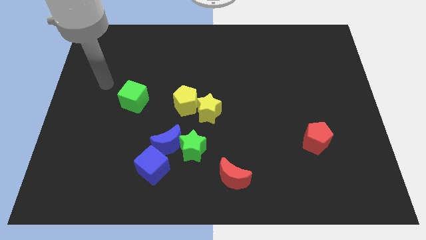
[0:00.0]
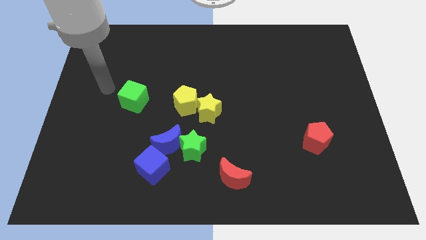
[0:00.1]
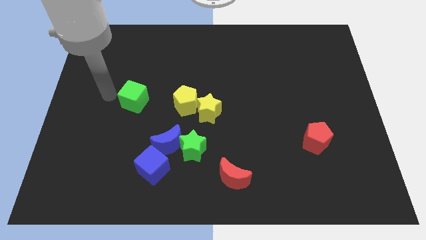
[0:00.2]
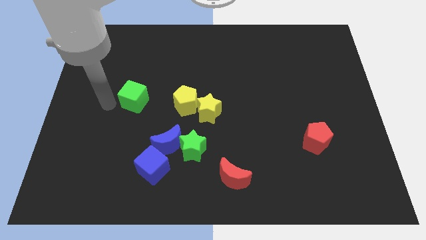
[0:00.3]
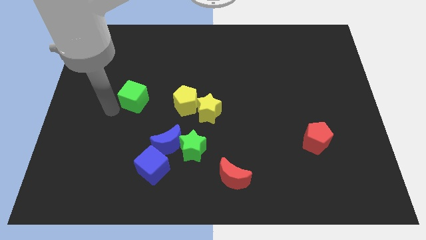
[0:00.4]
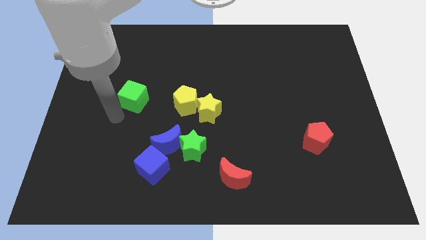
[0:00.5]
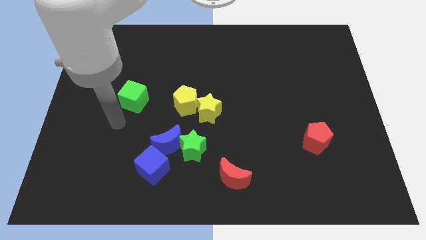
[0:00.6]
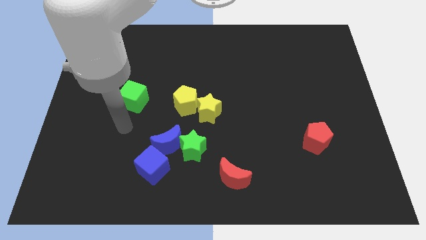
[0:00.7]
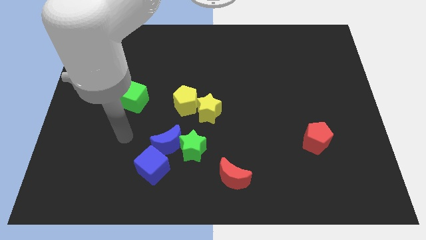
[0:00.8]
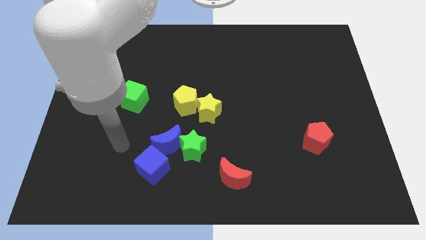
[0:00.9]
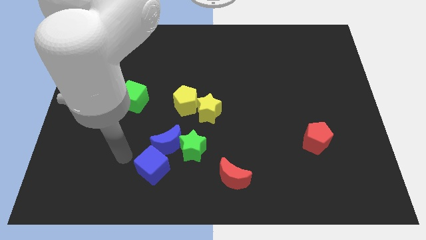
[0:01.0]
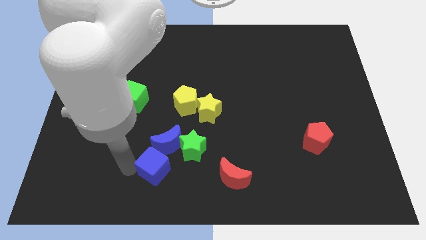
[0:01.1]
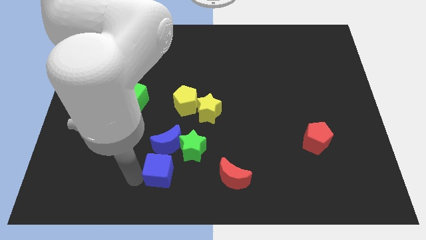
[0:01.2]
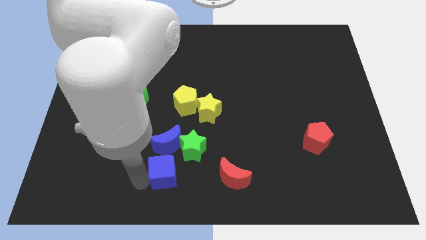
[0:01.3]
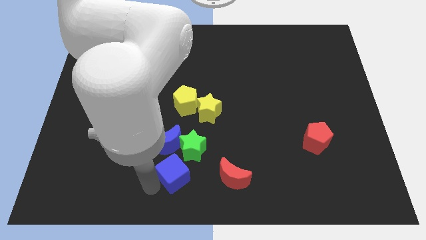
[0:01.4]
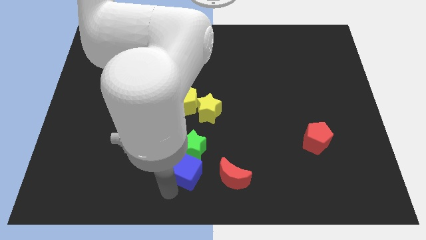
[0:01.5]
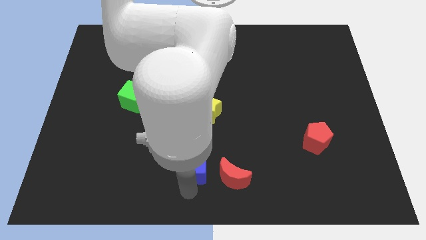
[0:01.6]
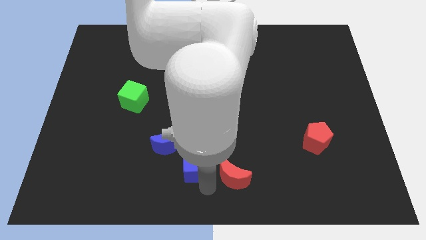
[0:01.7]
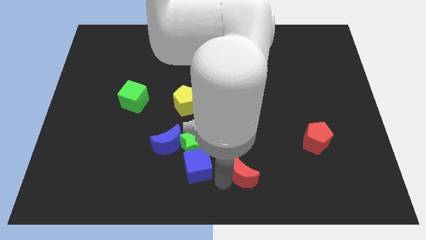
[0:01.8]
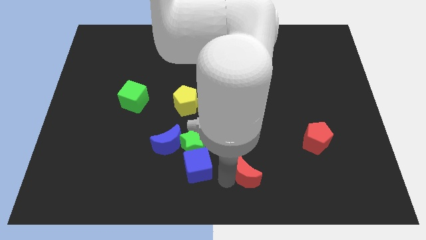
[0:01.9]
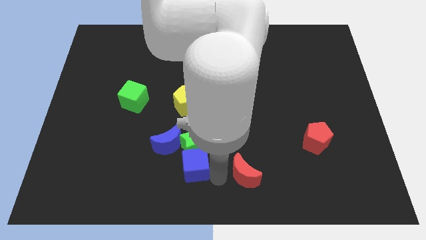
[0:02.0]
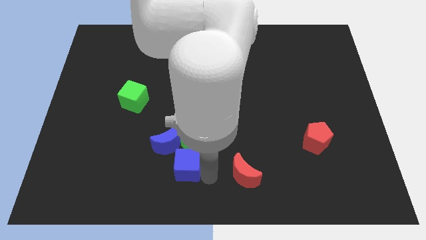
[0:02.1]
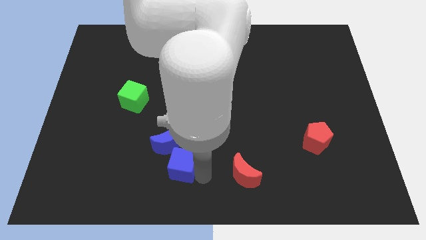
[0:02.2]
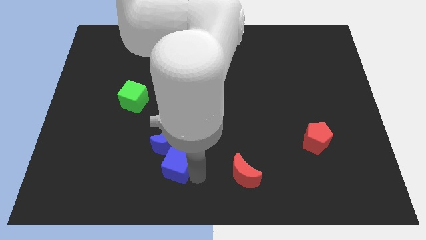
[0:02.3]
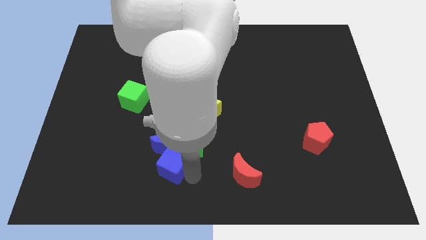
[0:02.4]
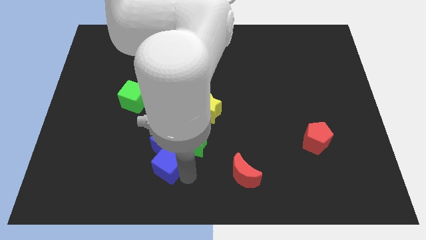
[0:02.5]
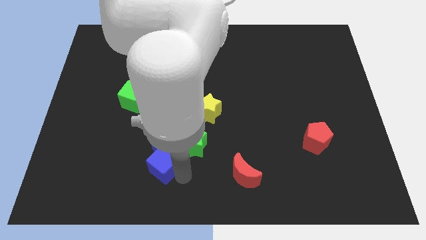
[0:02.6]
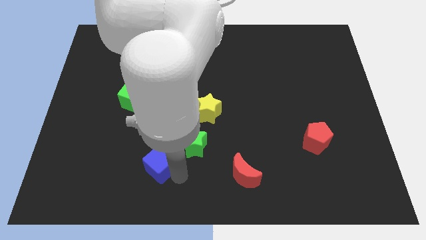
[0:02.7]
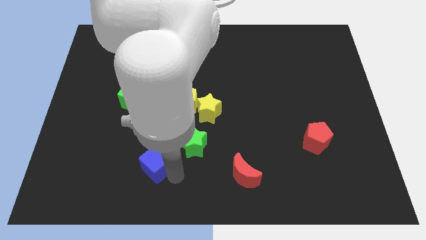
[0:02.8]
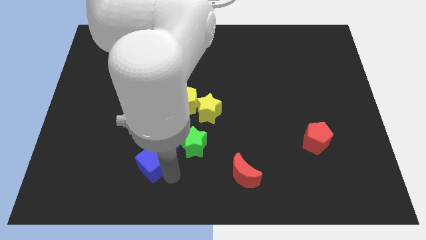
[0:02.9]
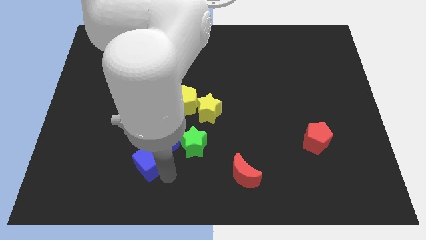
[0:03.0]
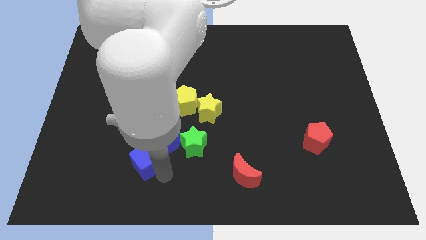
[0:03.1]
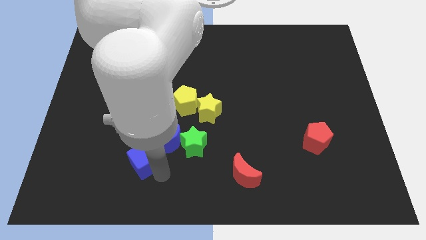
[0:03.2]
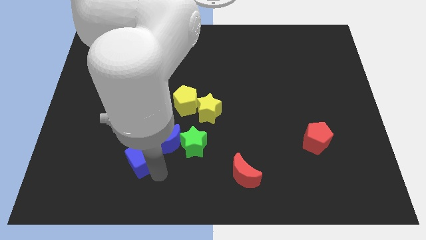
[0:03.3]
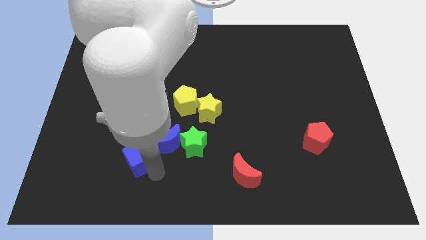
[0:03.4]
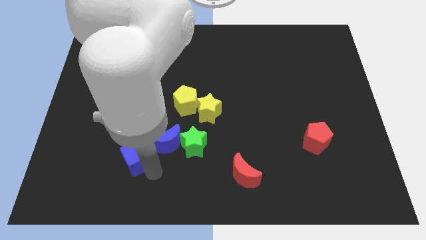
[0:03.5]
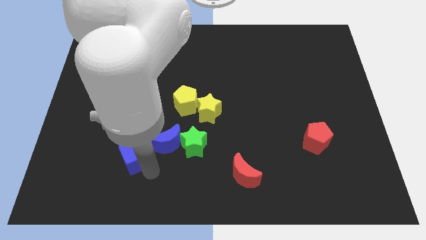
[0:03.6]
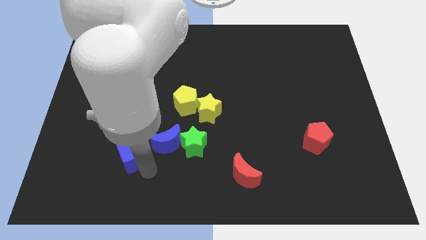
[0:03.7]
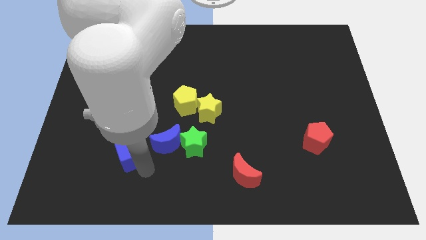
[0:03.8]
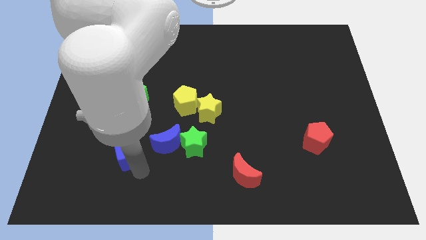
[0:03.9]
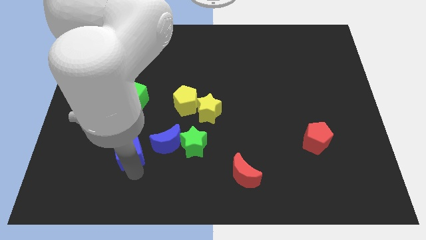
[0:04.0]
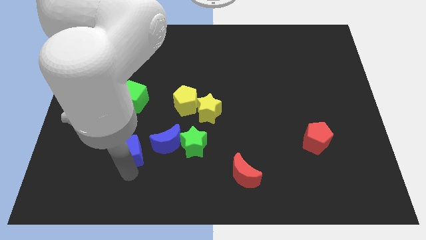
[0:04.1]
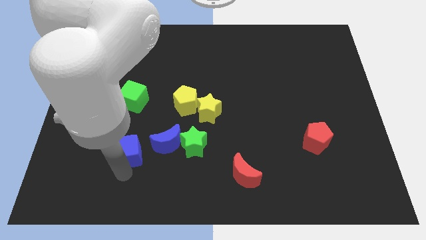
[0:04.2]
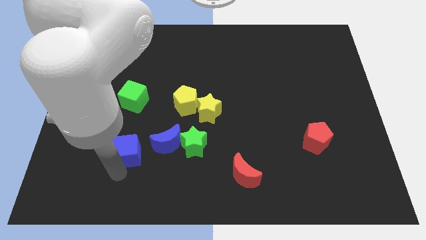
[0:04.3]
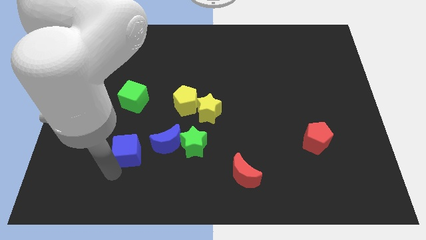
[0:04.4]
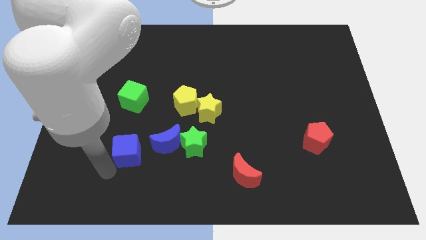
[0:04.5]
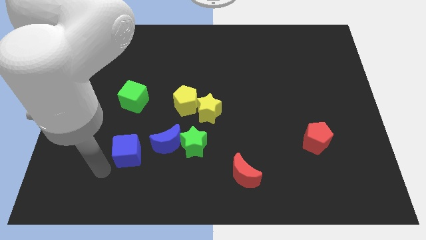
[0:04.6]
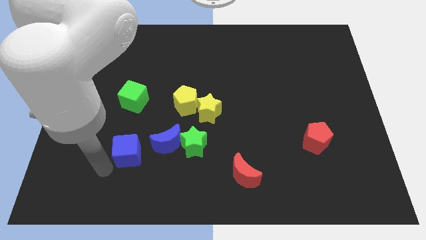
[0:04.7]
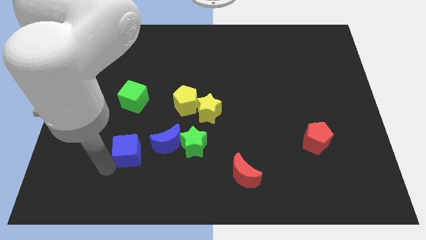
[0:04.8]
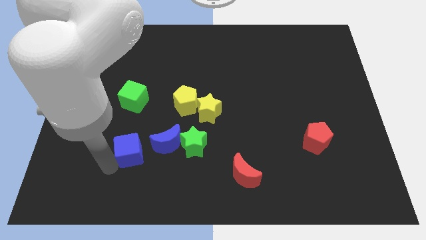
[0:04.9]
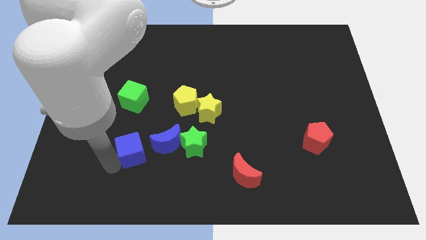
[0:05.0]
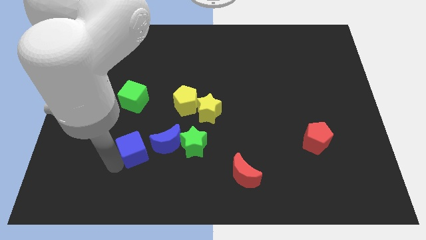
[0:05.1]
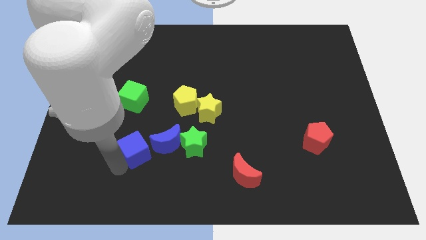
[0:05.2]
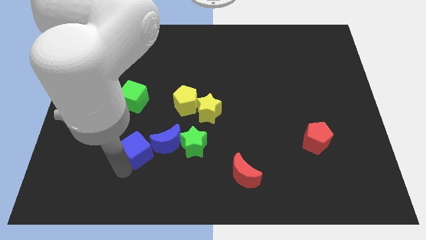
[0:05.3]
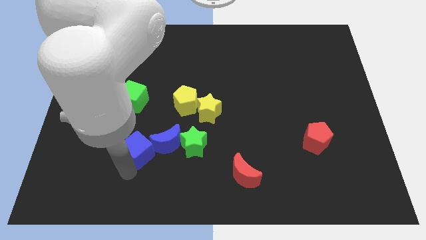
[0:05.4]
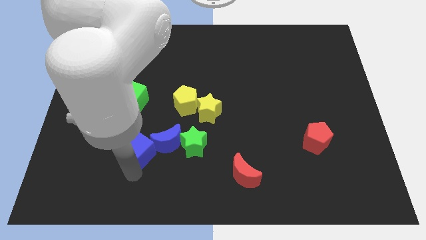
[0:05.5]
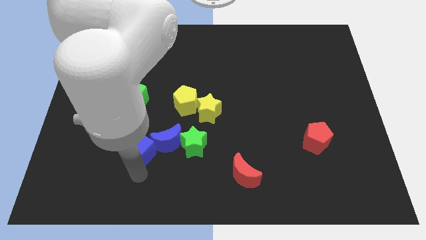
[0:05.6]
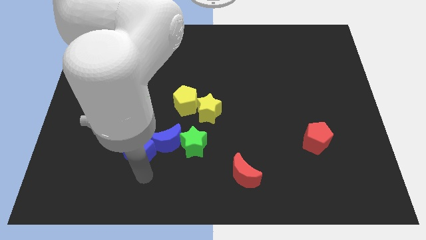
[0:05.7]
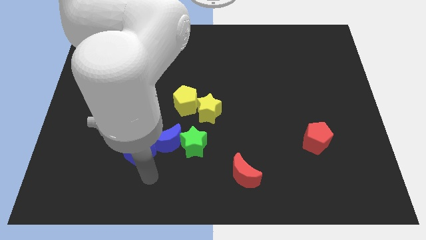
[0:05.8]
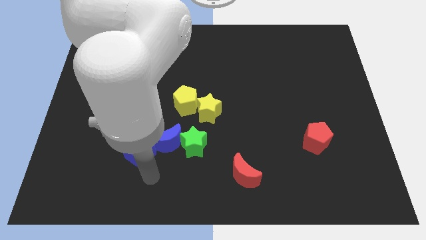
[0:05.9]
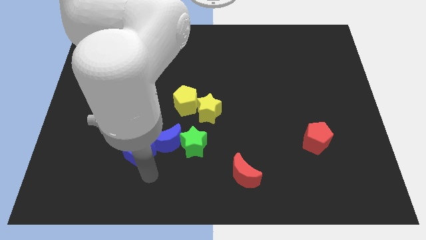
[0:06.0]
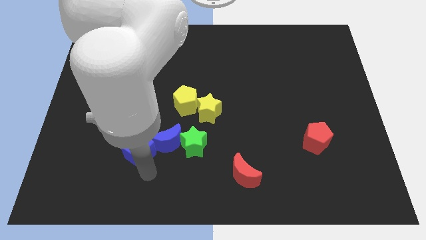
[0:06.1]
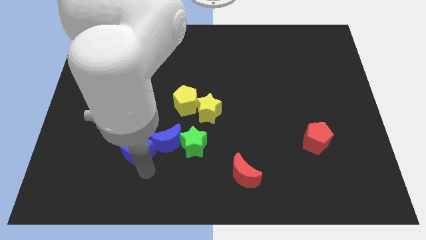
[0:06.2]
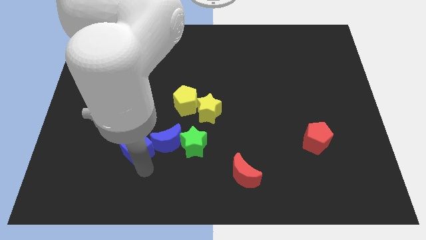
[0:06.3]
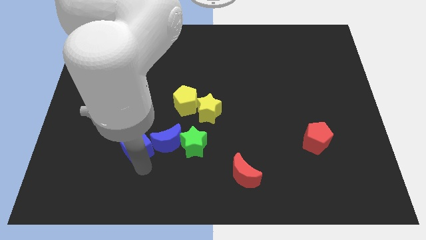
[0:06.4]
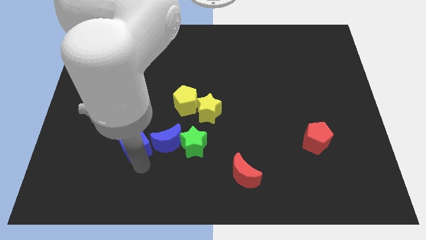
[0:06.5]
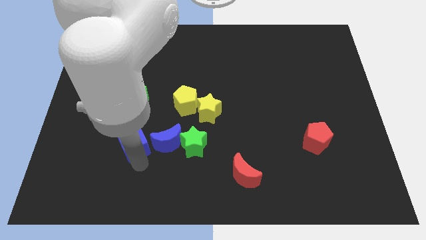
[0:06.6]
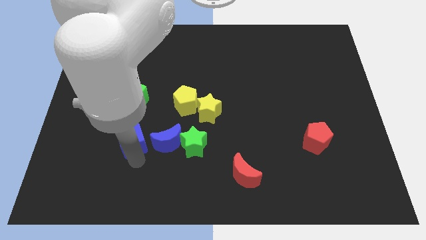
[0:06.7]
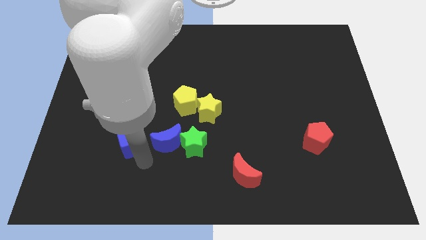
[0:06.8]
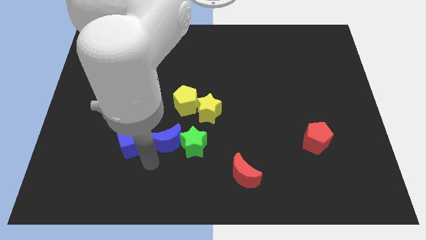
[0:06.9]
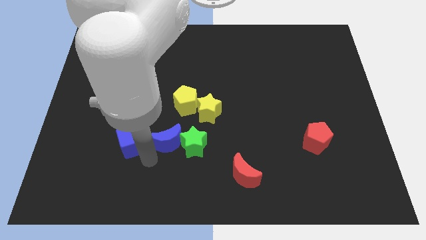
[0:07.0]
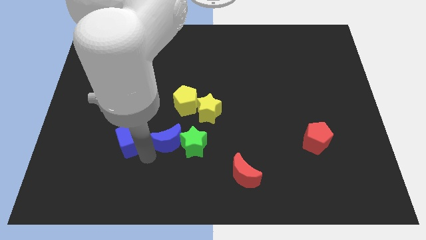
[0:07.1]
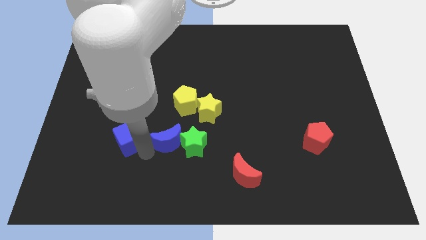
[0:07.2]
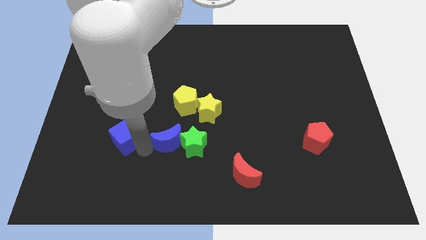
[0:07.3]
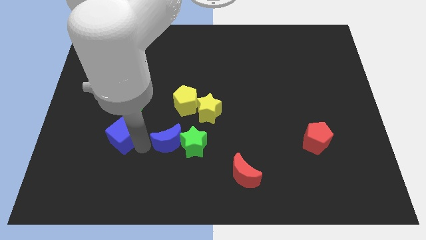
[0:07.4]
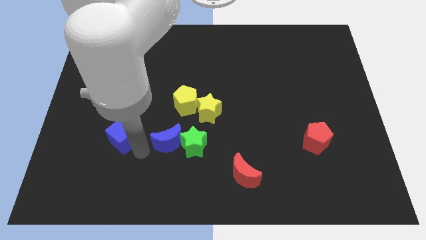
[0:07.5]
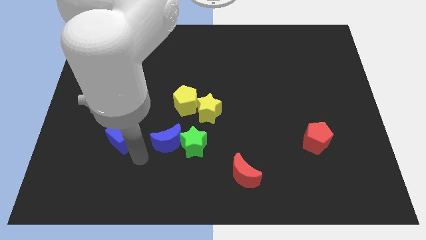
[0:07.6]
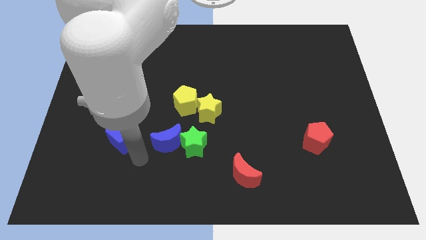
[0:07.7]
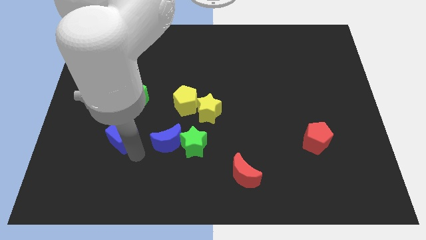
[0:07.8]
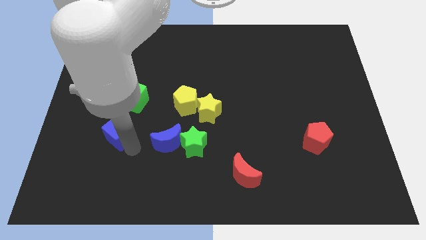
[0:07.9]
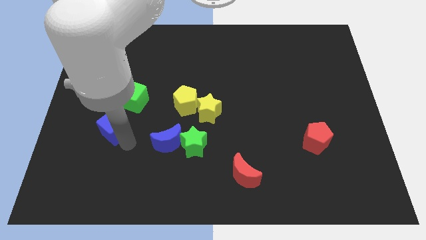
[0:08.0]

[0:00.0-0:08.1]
push the blue cube to the bottom left side of the green cube
